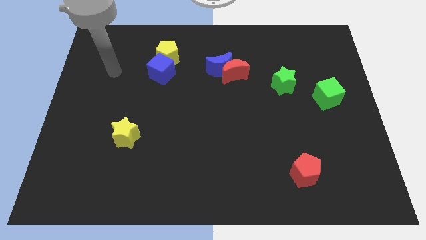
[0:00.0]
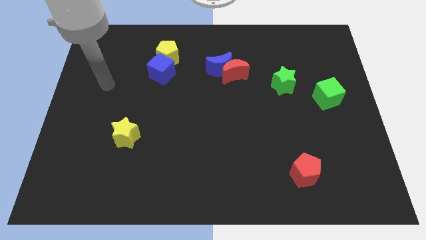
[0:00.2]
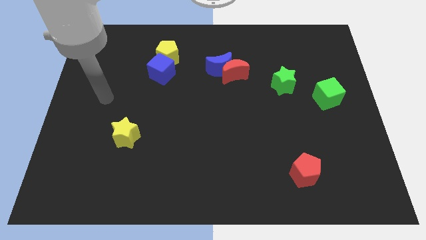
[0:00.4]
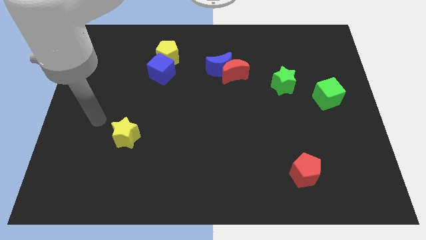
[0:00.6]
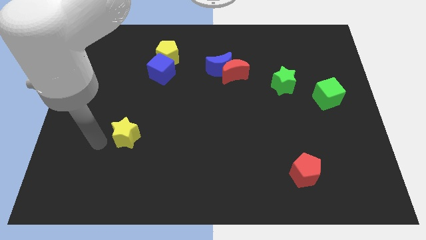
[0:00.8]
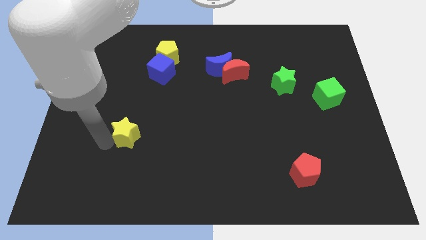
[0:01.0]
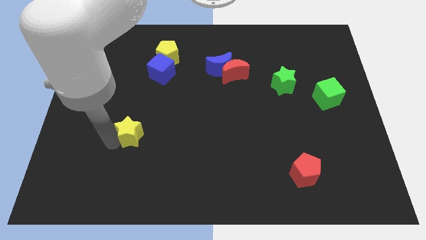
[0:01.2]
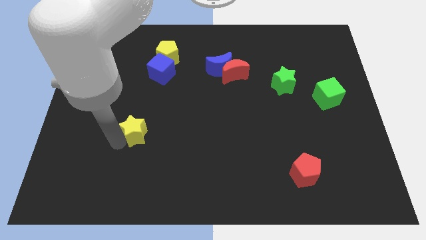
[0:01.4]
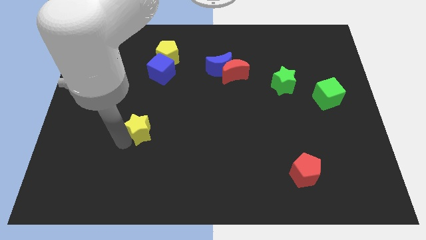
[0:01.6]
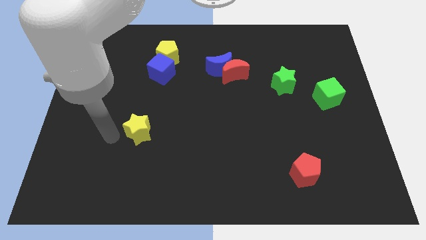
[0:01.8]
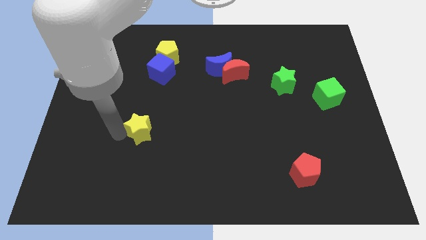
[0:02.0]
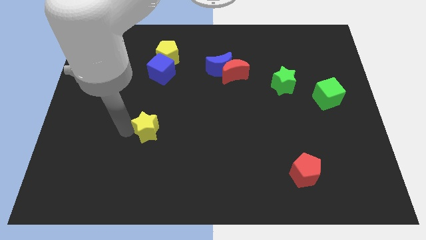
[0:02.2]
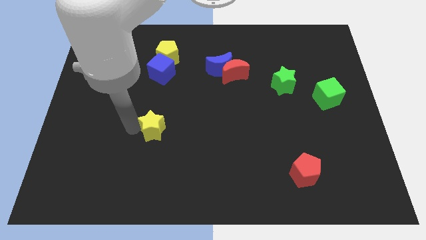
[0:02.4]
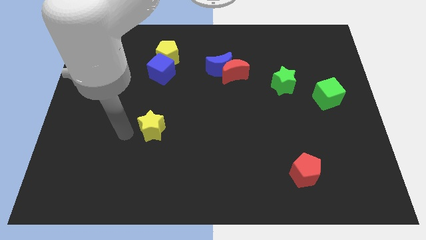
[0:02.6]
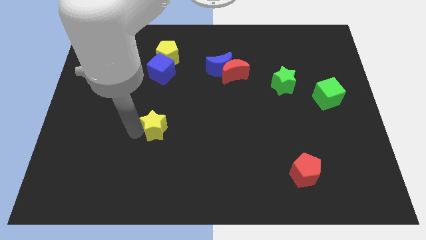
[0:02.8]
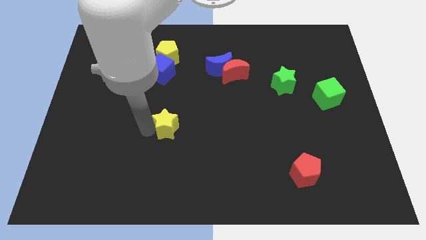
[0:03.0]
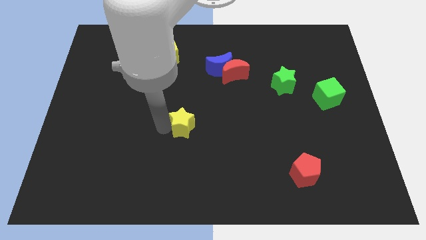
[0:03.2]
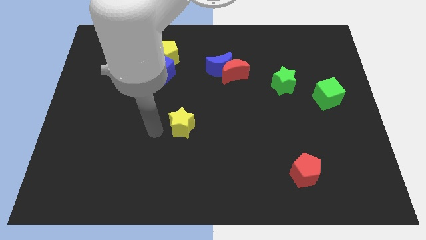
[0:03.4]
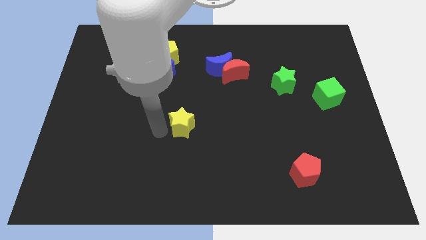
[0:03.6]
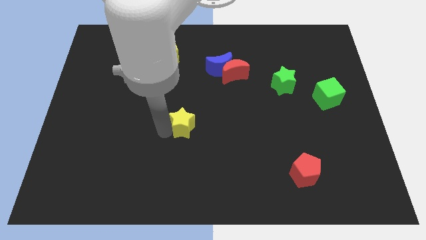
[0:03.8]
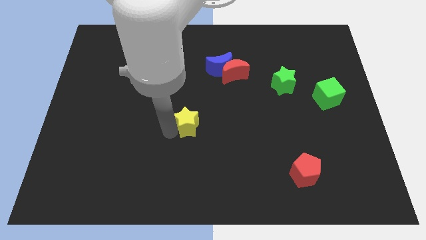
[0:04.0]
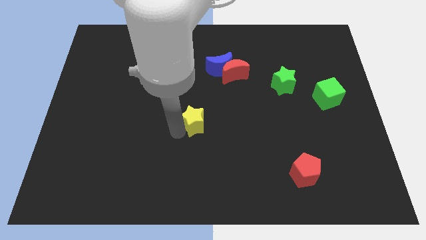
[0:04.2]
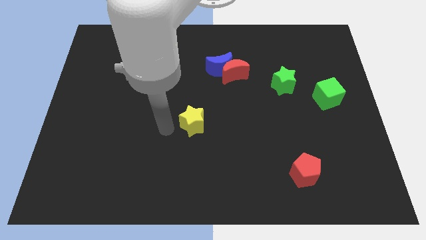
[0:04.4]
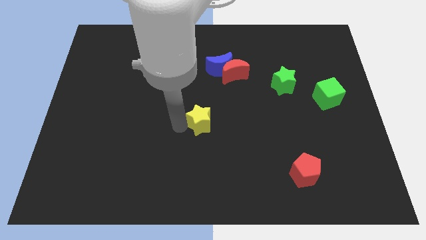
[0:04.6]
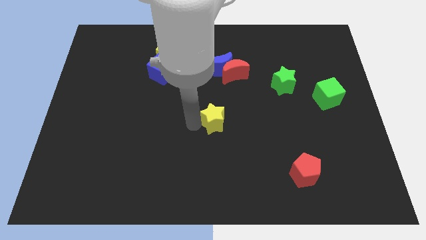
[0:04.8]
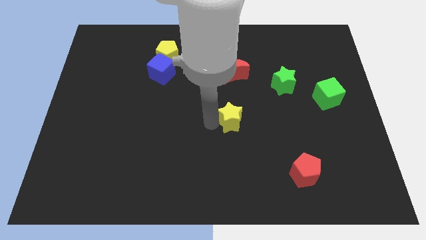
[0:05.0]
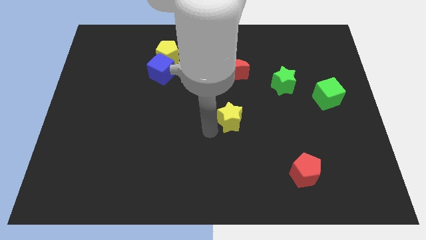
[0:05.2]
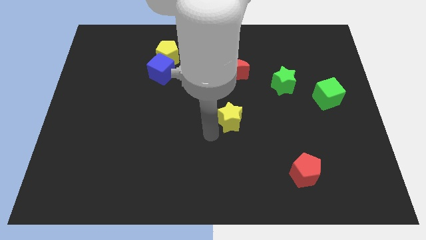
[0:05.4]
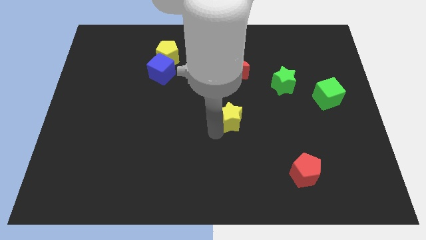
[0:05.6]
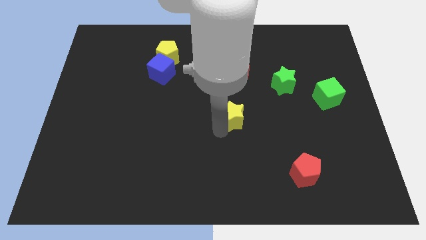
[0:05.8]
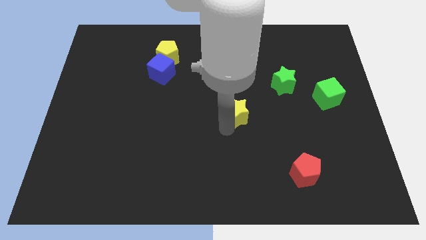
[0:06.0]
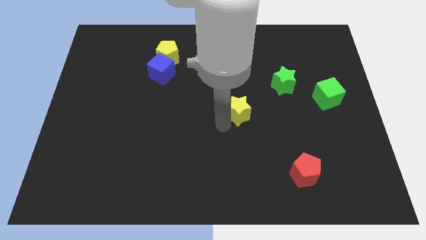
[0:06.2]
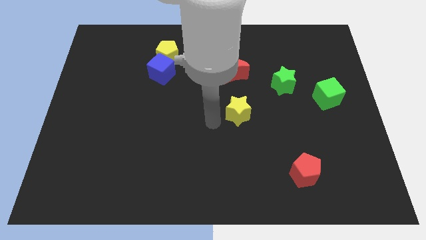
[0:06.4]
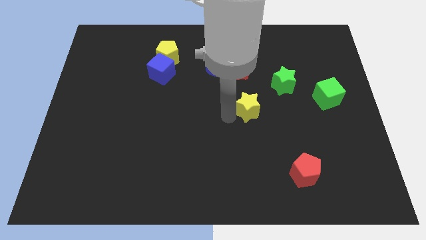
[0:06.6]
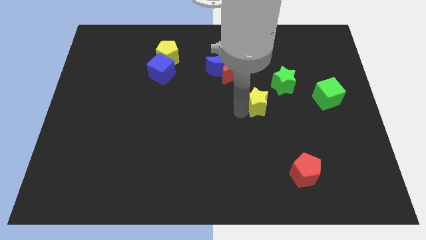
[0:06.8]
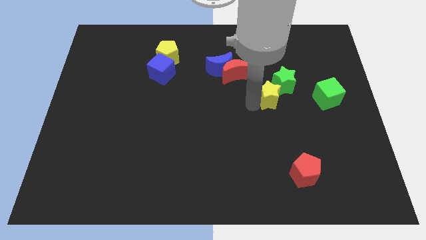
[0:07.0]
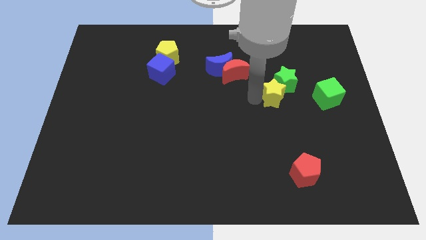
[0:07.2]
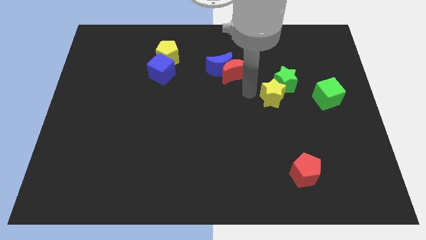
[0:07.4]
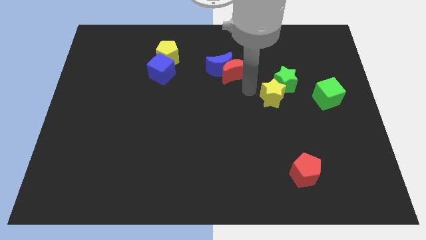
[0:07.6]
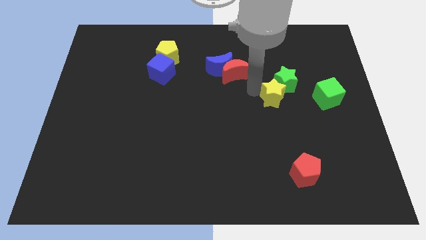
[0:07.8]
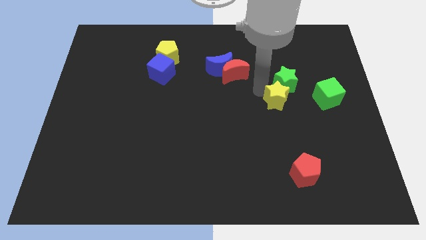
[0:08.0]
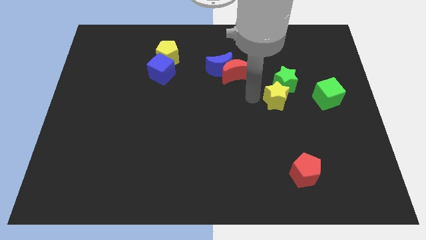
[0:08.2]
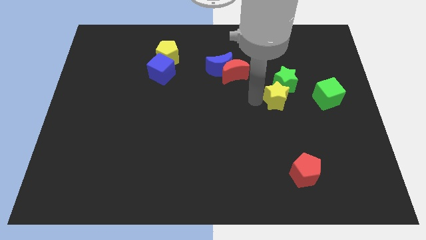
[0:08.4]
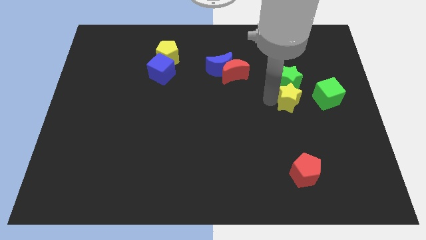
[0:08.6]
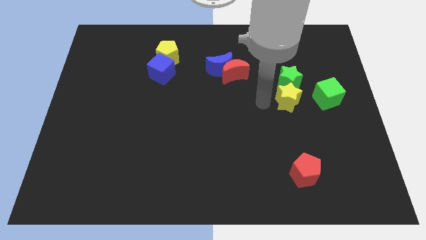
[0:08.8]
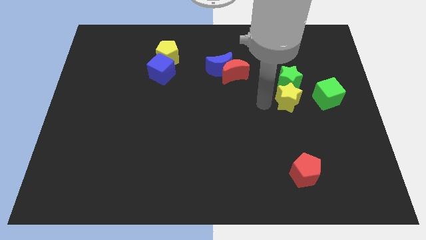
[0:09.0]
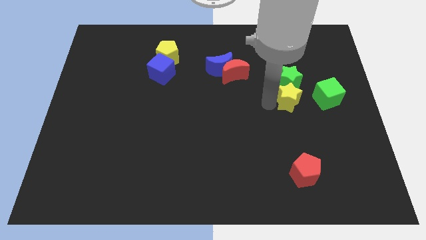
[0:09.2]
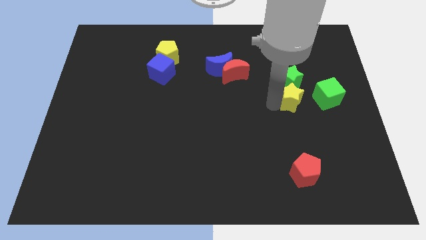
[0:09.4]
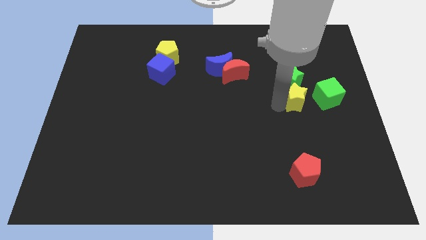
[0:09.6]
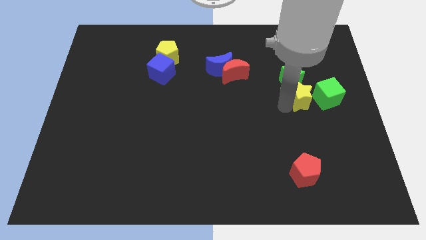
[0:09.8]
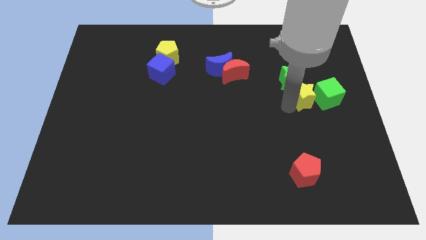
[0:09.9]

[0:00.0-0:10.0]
move the yellow star close to the green cube

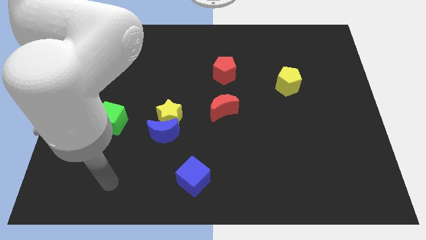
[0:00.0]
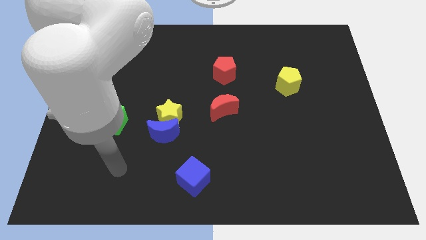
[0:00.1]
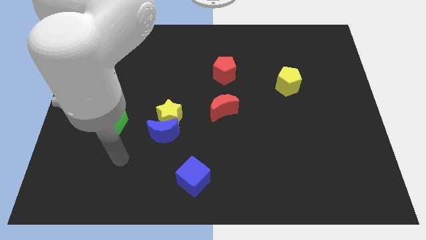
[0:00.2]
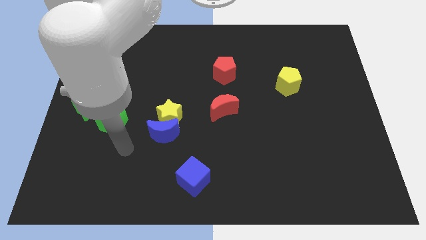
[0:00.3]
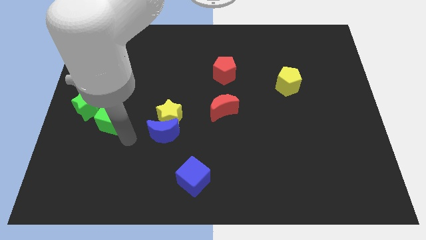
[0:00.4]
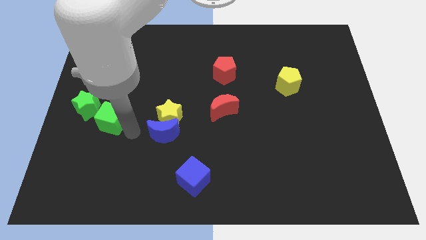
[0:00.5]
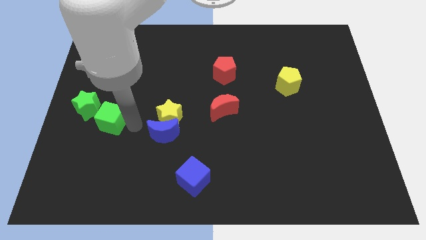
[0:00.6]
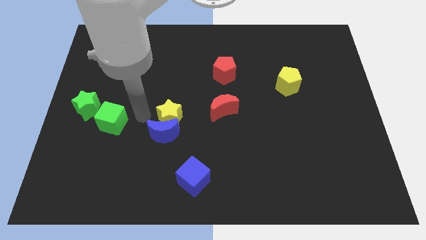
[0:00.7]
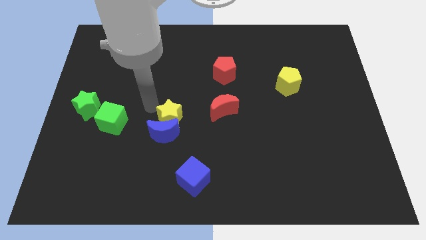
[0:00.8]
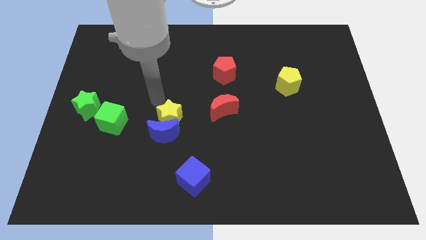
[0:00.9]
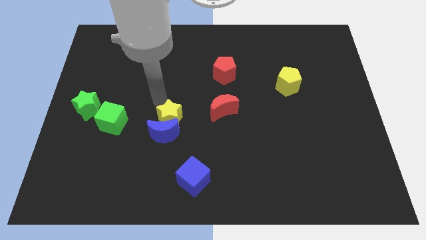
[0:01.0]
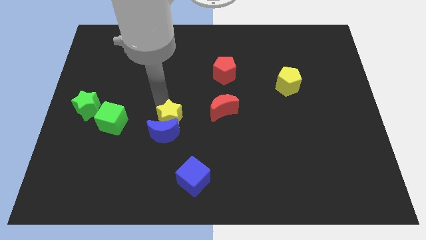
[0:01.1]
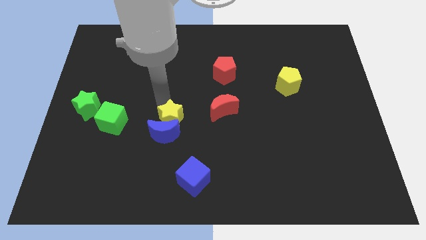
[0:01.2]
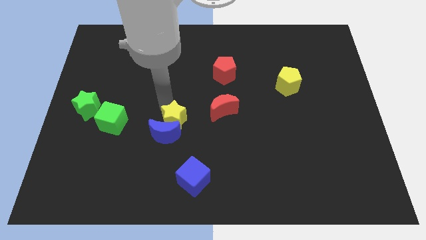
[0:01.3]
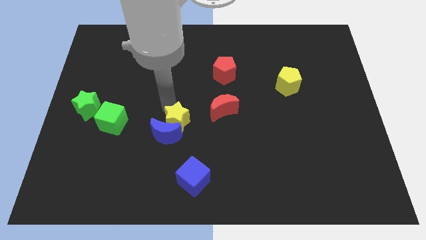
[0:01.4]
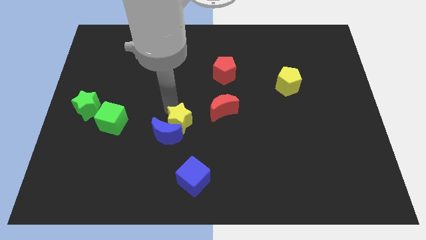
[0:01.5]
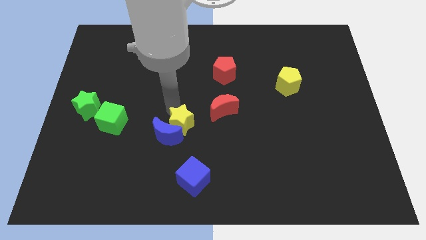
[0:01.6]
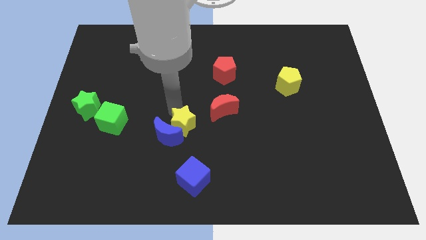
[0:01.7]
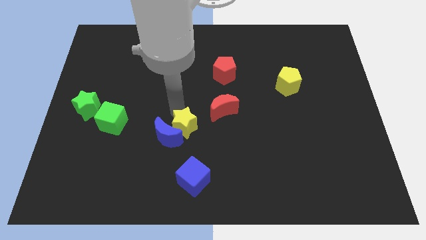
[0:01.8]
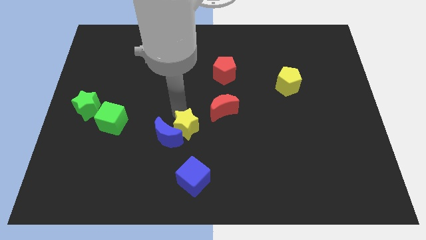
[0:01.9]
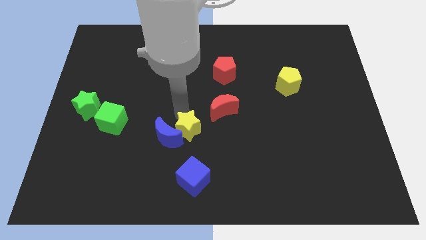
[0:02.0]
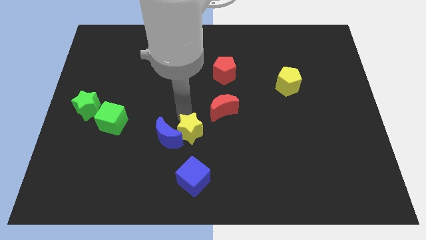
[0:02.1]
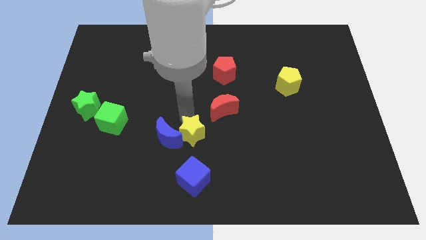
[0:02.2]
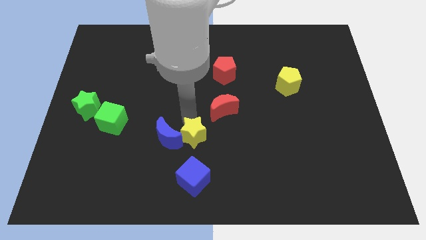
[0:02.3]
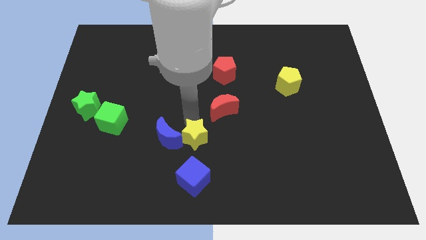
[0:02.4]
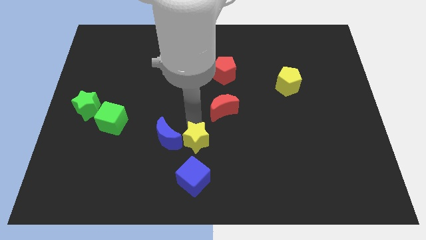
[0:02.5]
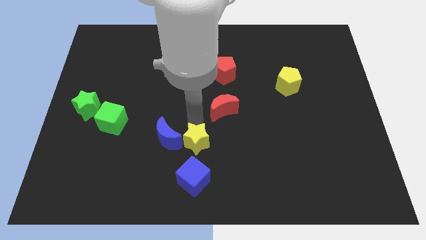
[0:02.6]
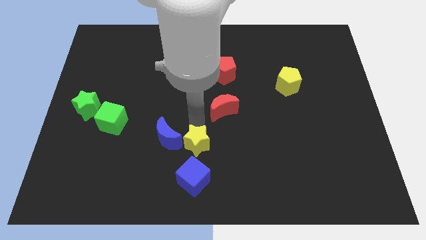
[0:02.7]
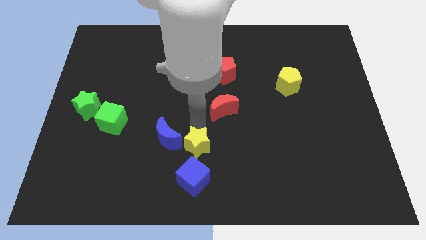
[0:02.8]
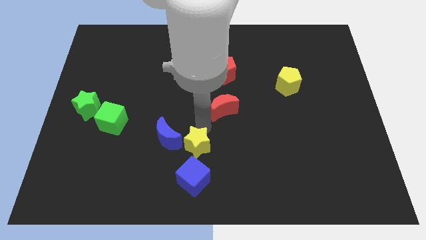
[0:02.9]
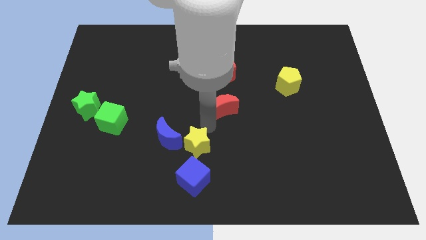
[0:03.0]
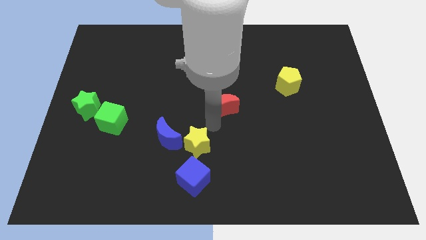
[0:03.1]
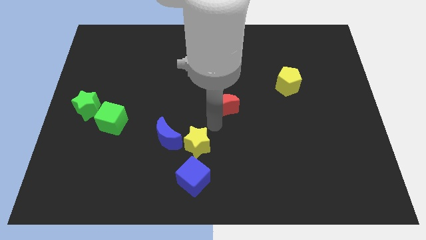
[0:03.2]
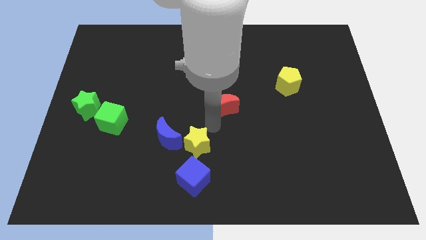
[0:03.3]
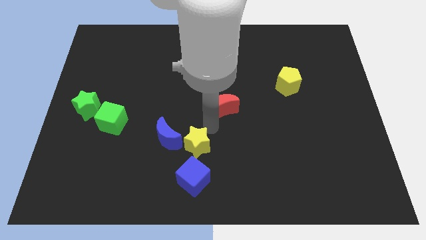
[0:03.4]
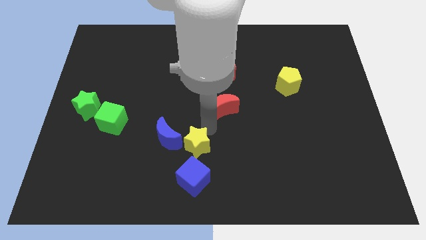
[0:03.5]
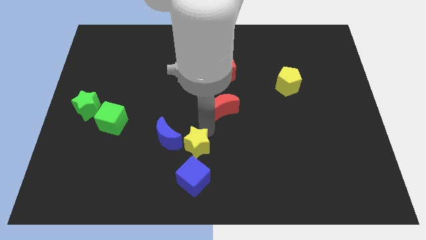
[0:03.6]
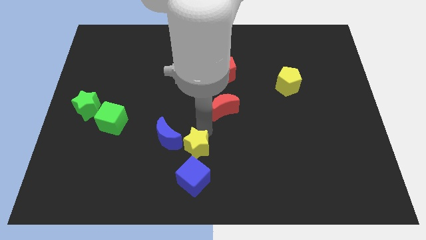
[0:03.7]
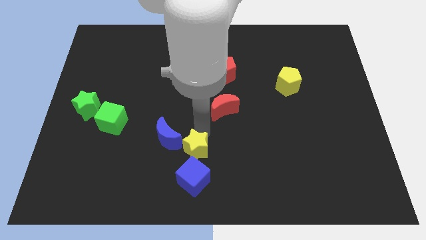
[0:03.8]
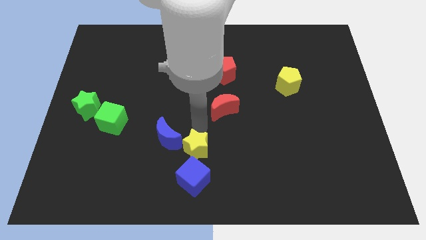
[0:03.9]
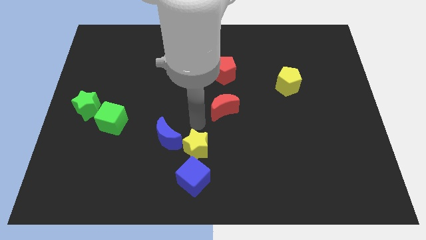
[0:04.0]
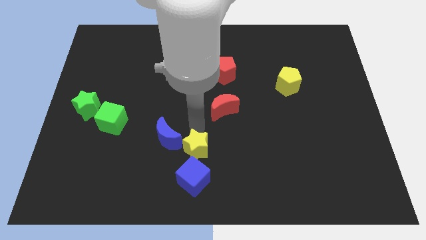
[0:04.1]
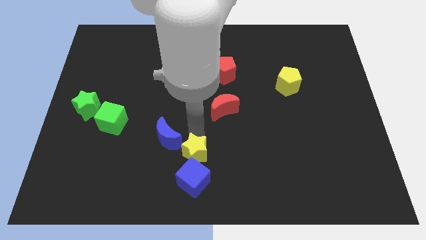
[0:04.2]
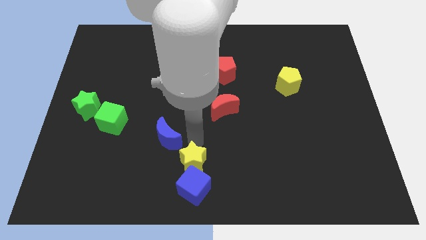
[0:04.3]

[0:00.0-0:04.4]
push the yellow star to the blue cube
